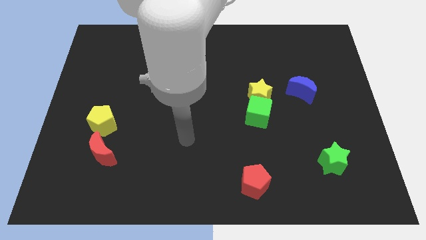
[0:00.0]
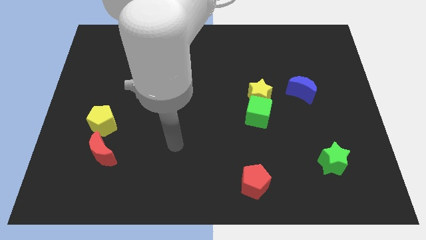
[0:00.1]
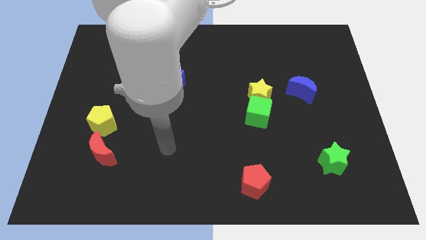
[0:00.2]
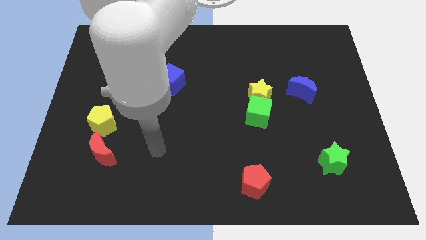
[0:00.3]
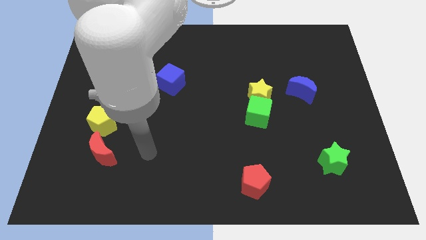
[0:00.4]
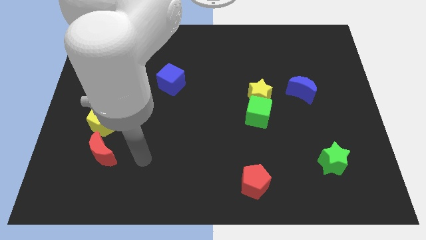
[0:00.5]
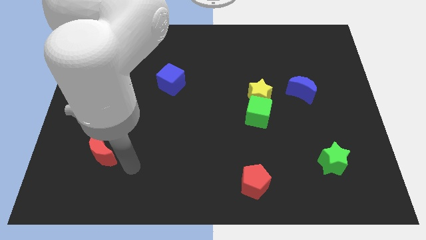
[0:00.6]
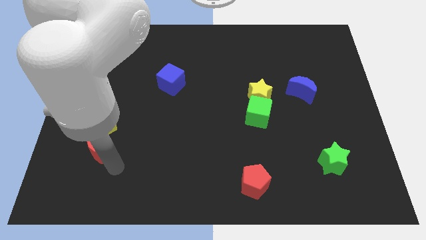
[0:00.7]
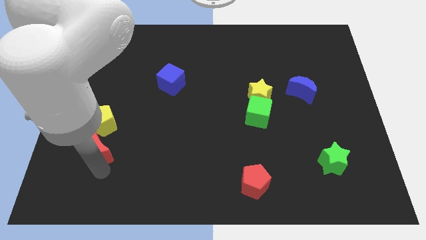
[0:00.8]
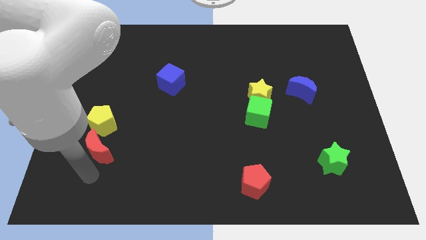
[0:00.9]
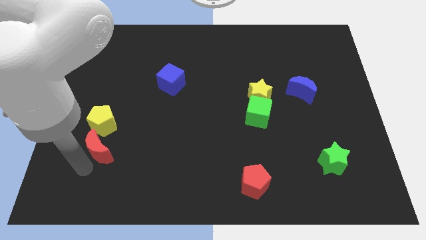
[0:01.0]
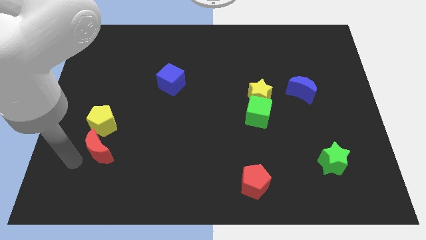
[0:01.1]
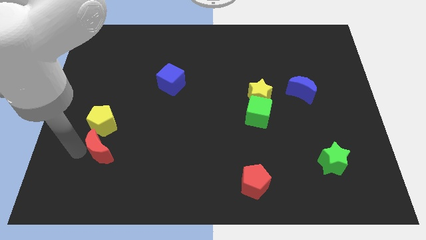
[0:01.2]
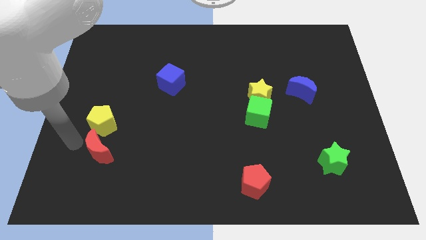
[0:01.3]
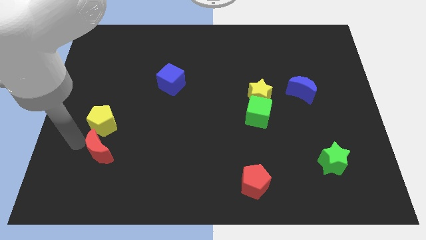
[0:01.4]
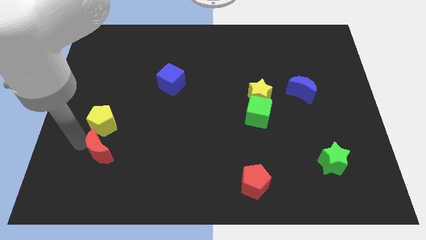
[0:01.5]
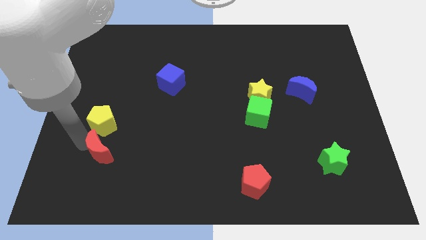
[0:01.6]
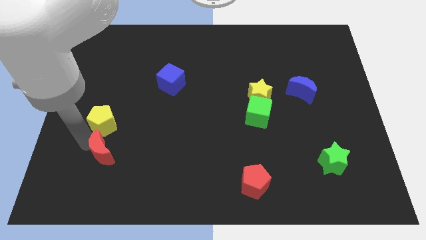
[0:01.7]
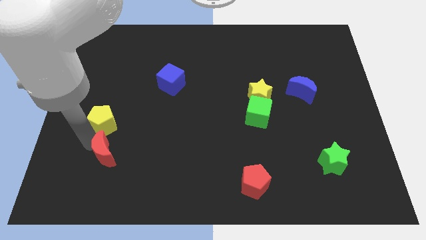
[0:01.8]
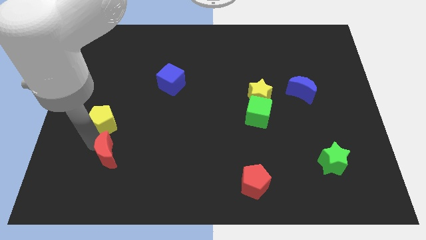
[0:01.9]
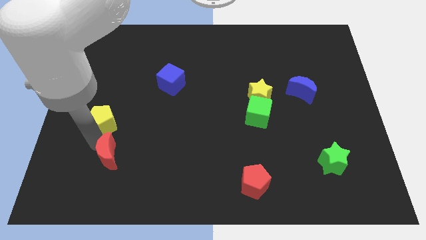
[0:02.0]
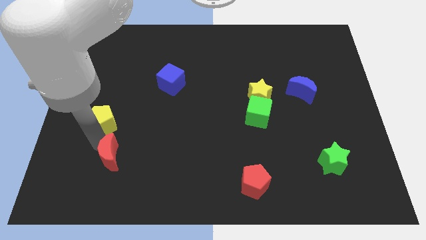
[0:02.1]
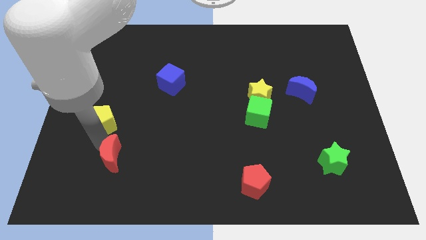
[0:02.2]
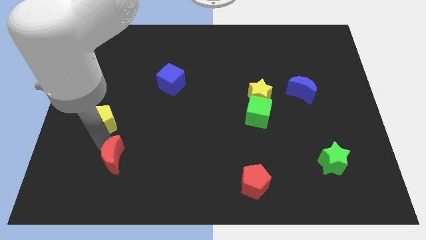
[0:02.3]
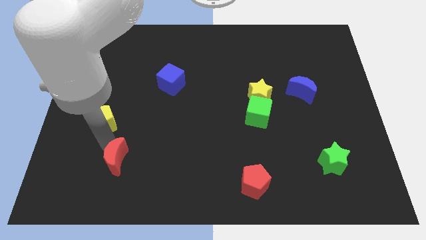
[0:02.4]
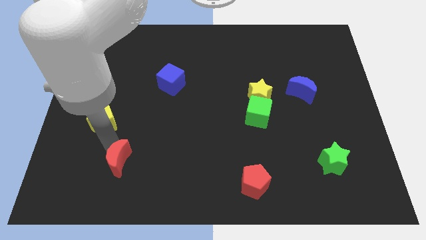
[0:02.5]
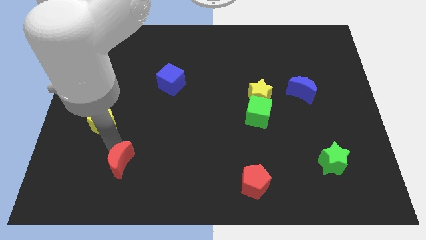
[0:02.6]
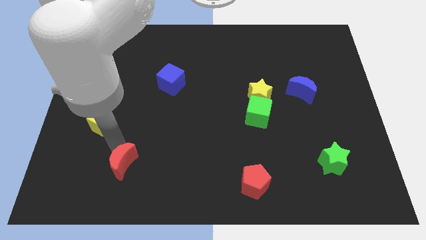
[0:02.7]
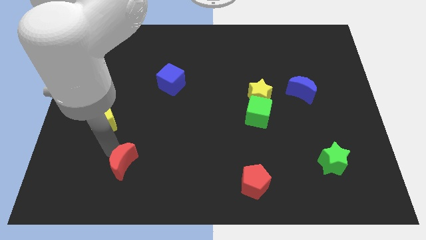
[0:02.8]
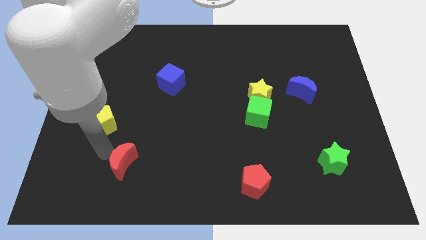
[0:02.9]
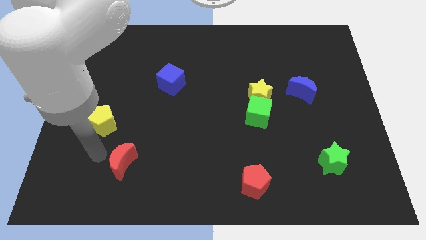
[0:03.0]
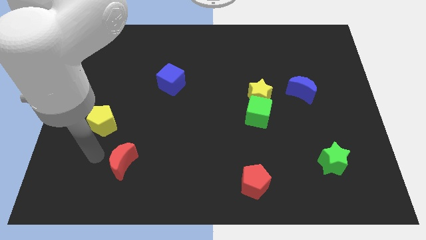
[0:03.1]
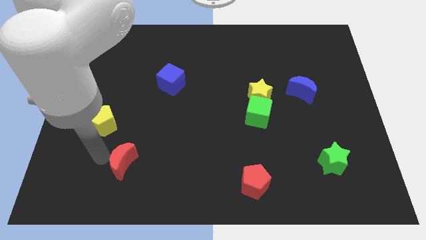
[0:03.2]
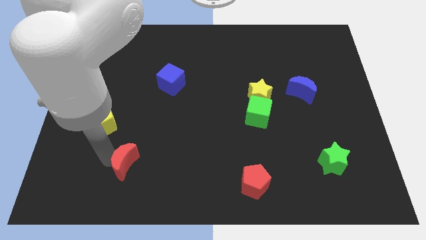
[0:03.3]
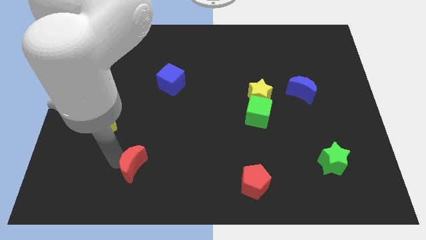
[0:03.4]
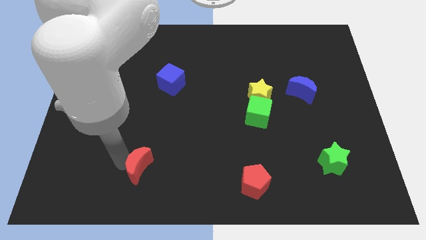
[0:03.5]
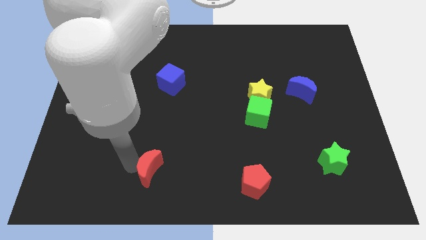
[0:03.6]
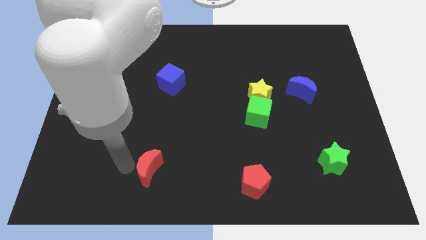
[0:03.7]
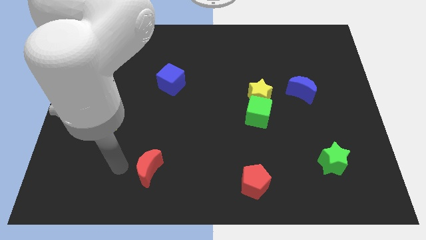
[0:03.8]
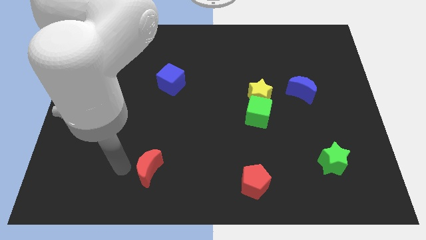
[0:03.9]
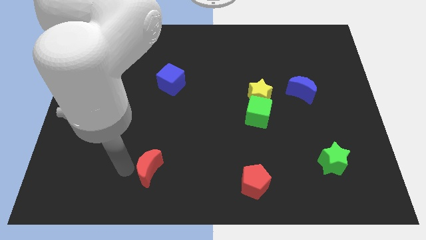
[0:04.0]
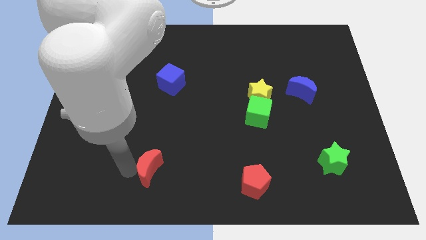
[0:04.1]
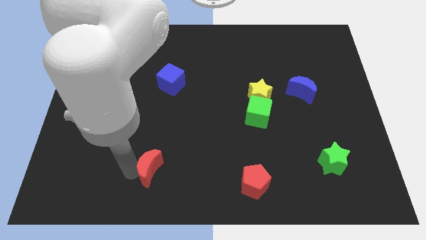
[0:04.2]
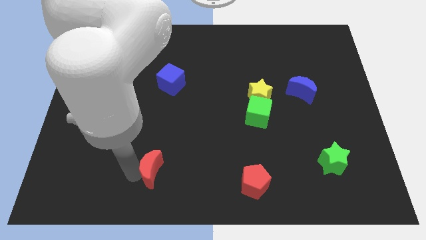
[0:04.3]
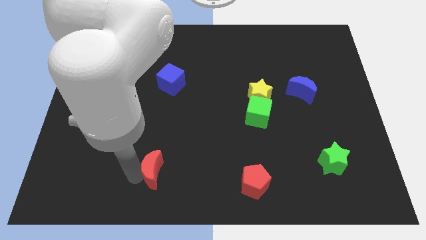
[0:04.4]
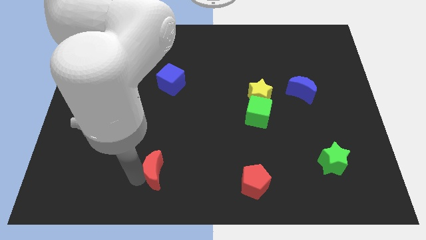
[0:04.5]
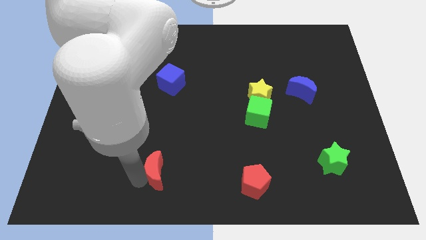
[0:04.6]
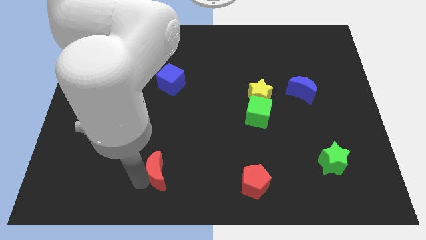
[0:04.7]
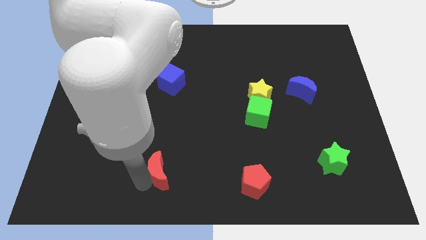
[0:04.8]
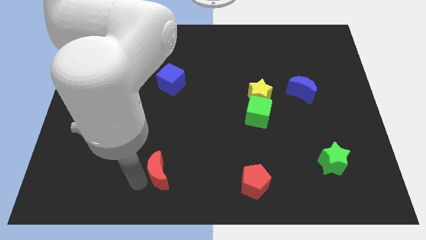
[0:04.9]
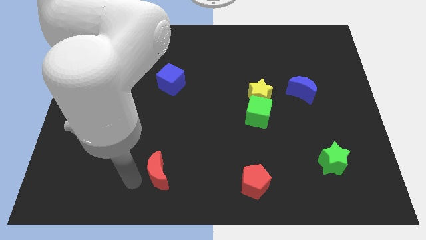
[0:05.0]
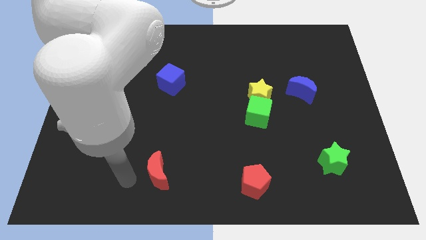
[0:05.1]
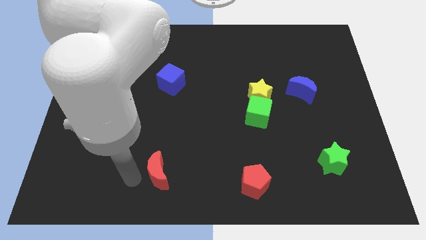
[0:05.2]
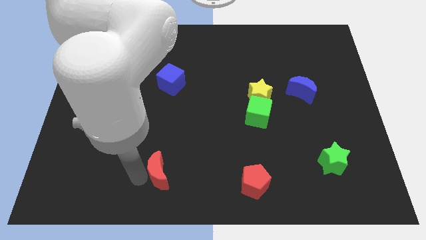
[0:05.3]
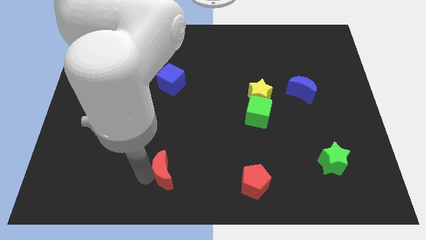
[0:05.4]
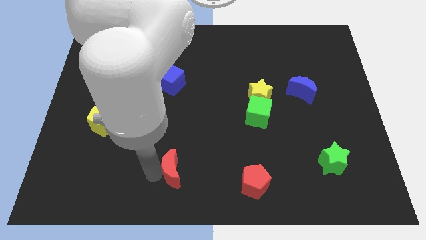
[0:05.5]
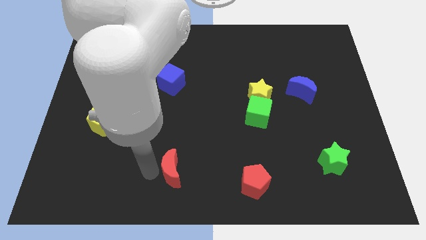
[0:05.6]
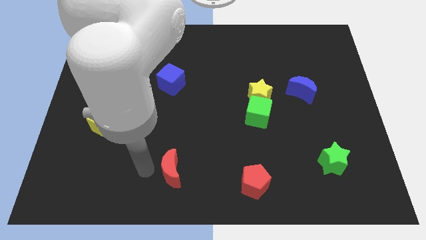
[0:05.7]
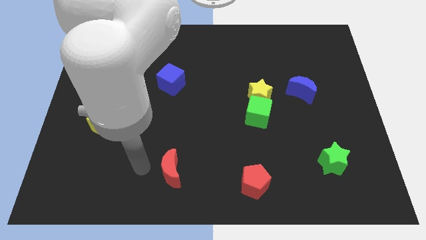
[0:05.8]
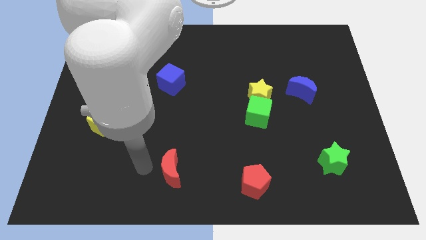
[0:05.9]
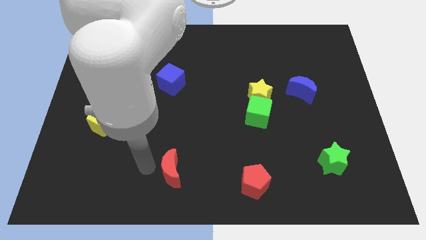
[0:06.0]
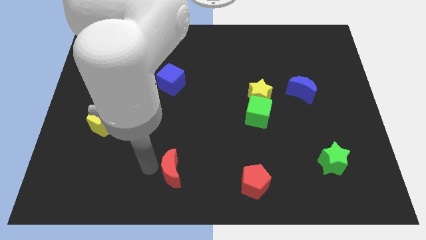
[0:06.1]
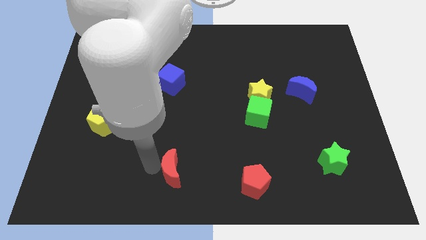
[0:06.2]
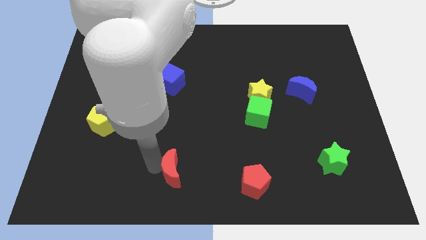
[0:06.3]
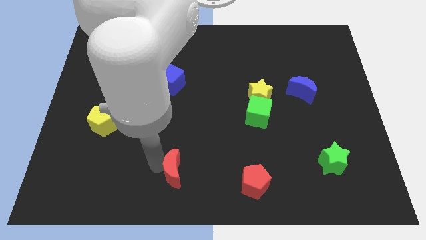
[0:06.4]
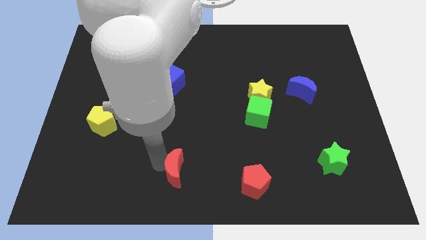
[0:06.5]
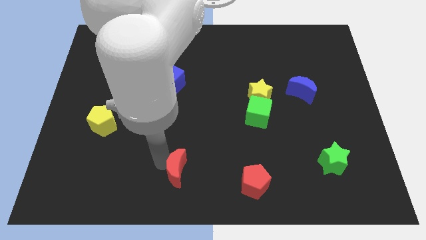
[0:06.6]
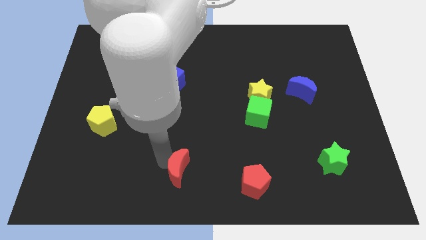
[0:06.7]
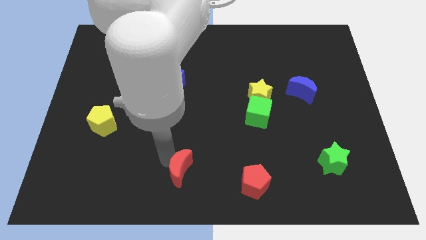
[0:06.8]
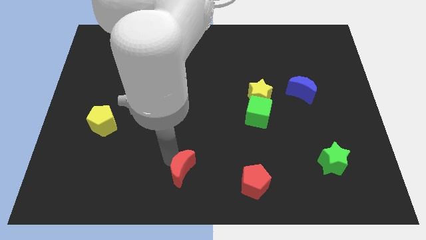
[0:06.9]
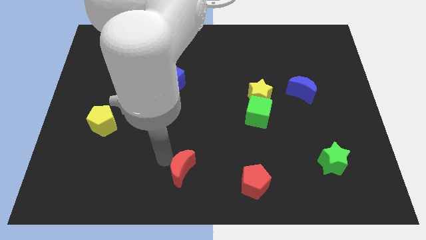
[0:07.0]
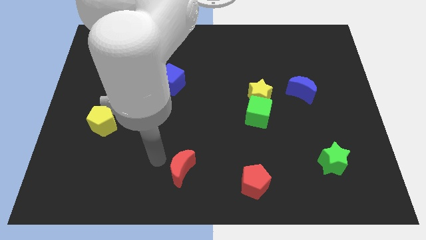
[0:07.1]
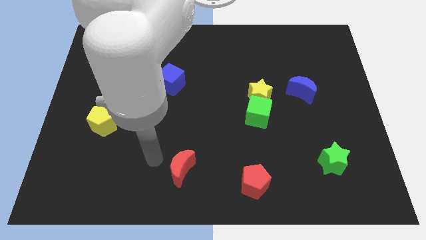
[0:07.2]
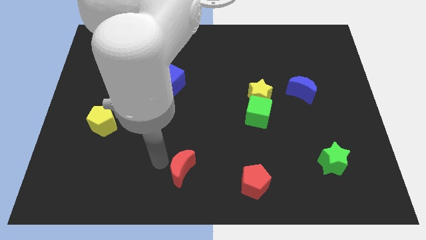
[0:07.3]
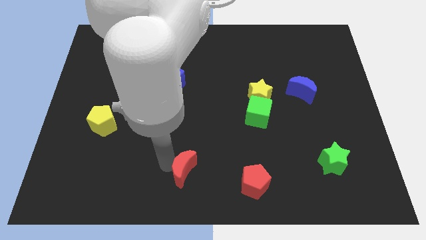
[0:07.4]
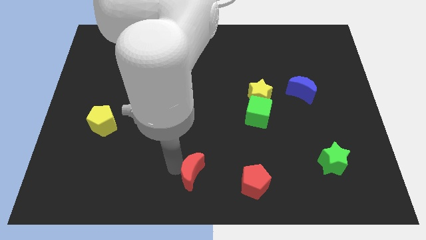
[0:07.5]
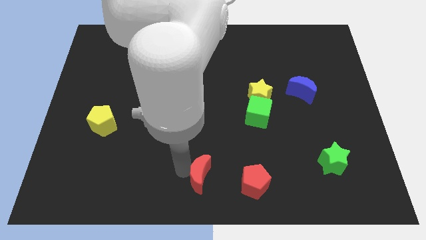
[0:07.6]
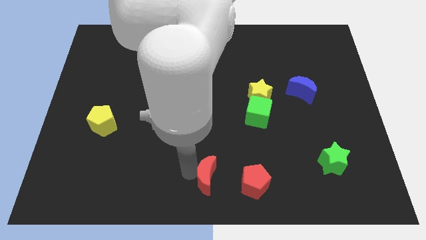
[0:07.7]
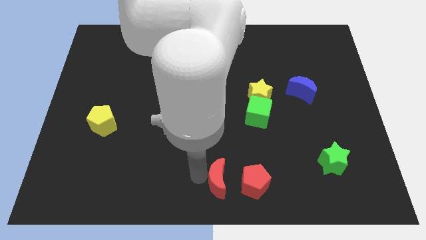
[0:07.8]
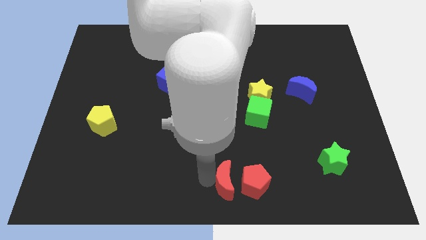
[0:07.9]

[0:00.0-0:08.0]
push the red moon close to the red pentagon
